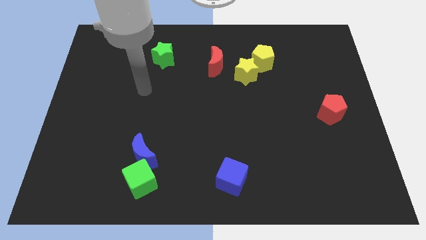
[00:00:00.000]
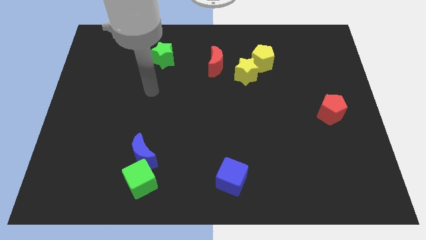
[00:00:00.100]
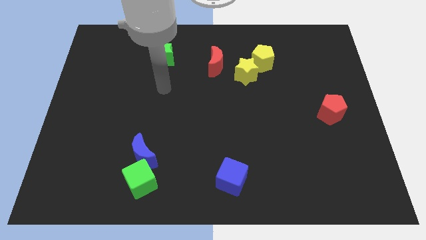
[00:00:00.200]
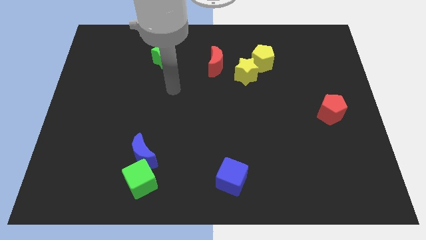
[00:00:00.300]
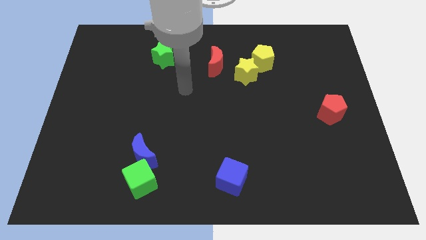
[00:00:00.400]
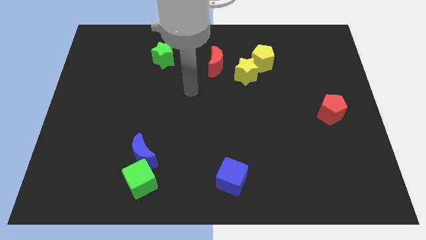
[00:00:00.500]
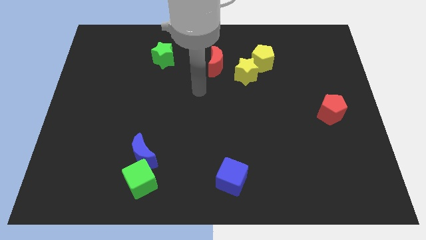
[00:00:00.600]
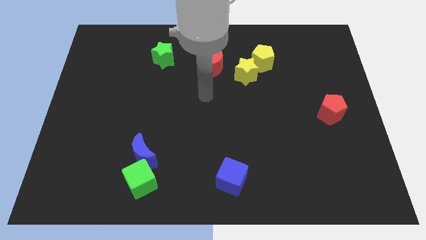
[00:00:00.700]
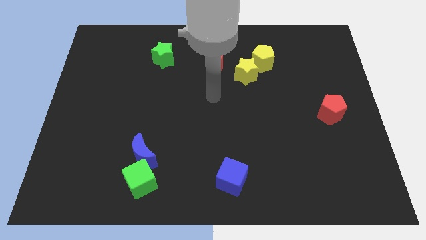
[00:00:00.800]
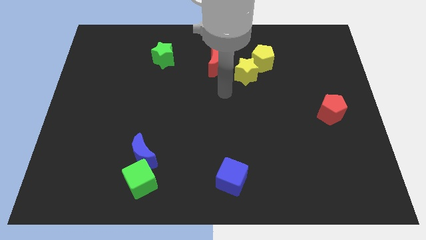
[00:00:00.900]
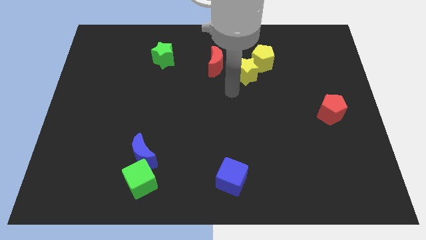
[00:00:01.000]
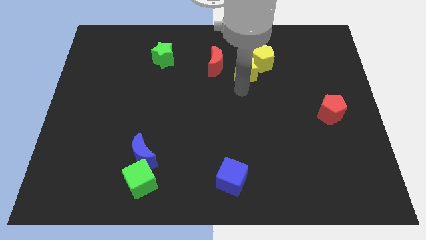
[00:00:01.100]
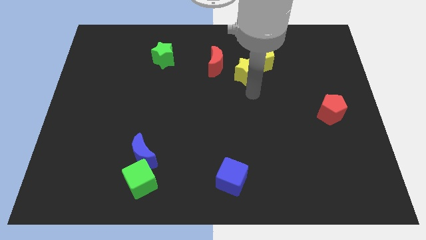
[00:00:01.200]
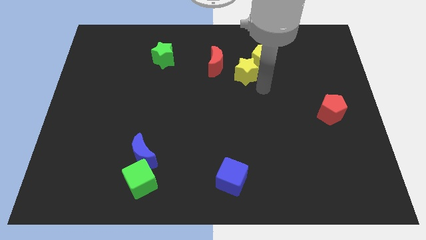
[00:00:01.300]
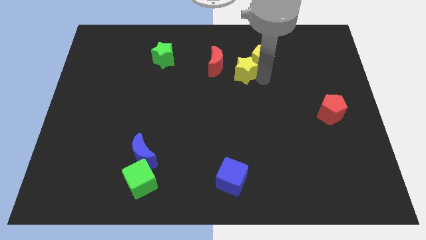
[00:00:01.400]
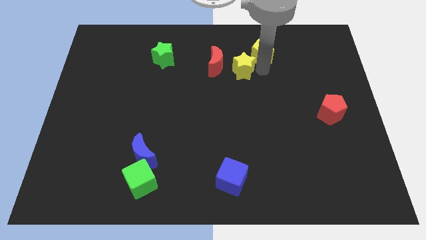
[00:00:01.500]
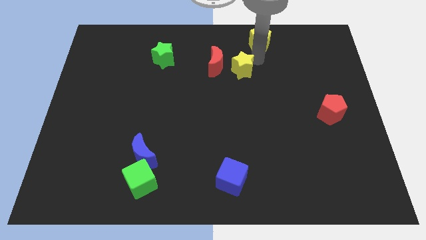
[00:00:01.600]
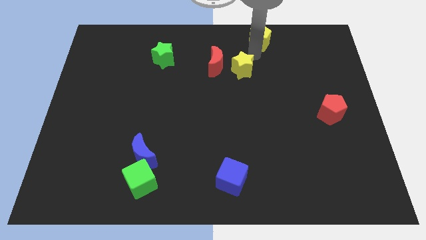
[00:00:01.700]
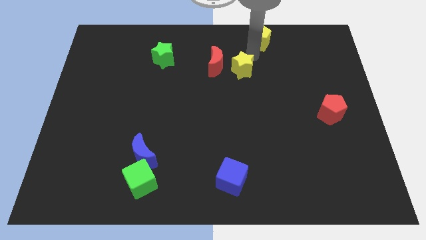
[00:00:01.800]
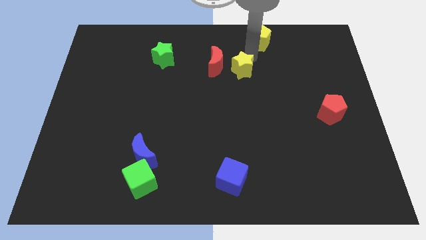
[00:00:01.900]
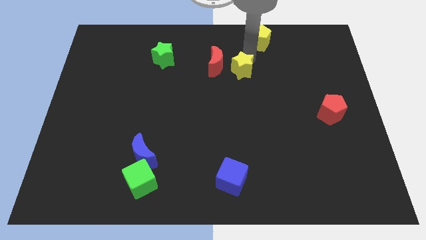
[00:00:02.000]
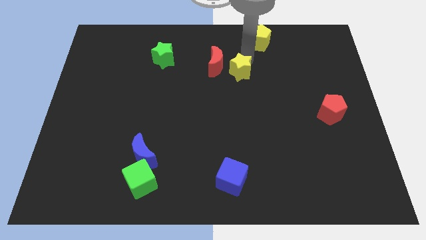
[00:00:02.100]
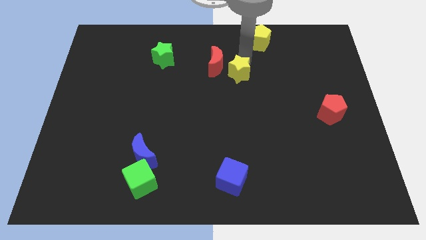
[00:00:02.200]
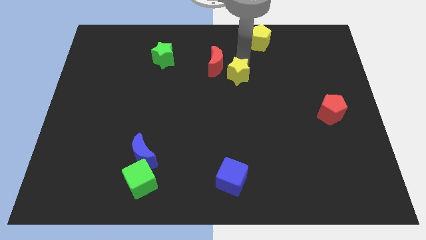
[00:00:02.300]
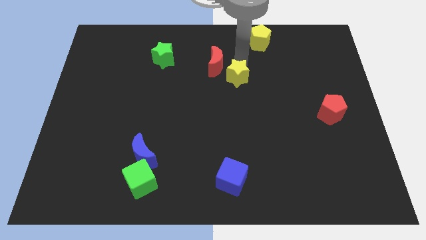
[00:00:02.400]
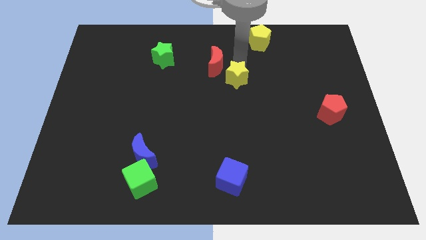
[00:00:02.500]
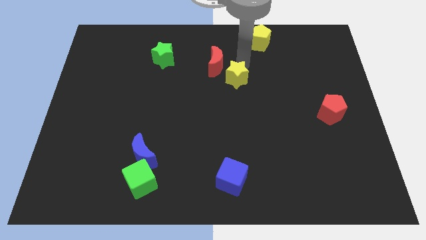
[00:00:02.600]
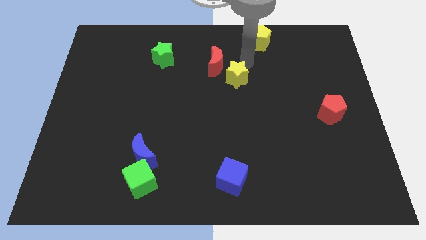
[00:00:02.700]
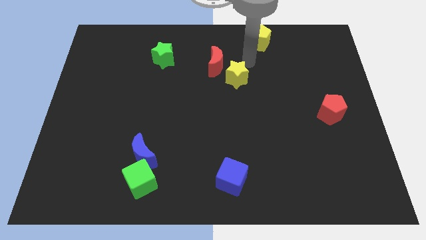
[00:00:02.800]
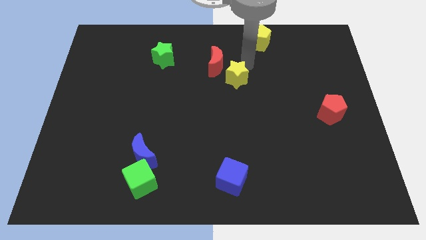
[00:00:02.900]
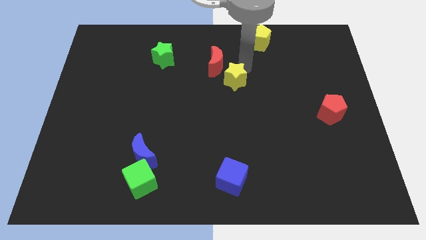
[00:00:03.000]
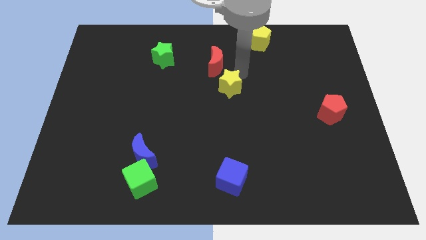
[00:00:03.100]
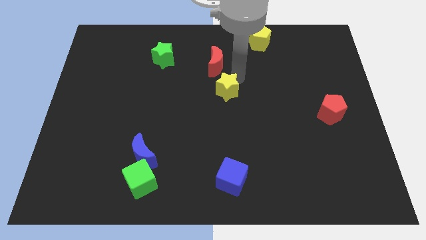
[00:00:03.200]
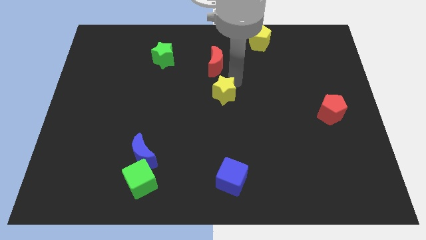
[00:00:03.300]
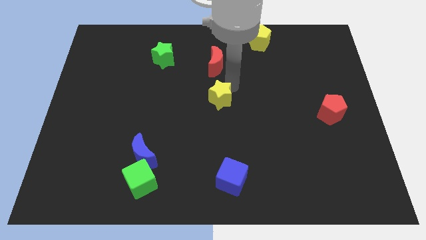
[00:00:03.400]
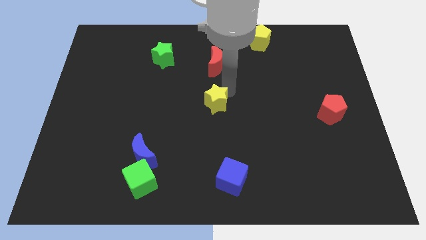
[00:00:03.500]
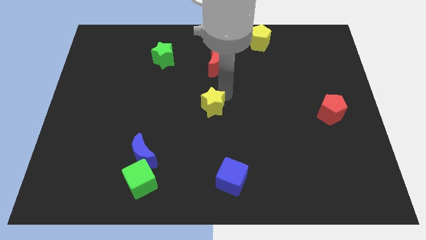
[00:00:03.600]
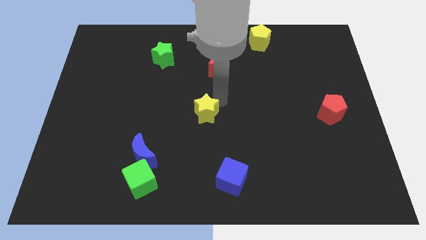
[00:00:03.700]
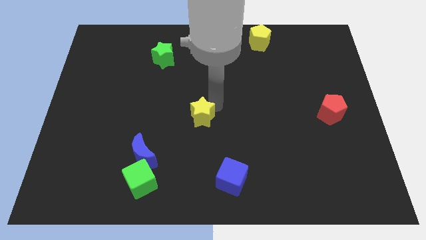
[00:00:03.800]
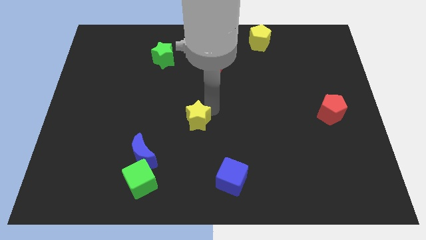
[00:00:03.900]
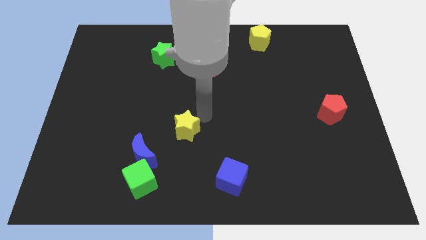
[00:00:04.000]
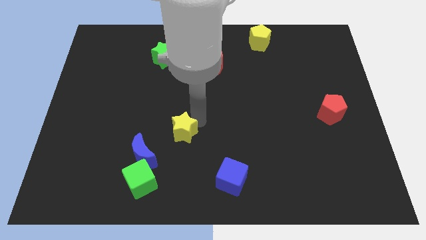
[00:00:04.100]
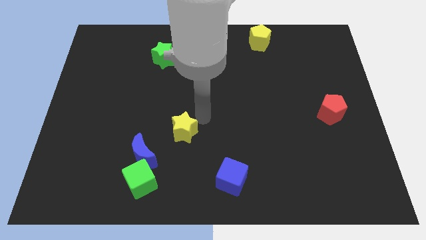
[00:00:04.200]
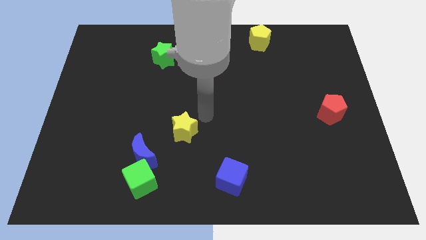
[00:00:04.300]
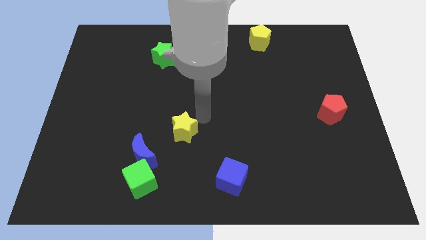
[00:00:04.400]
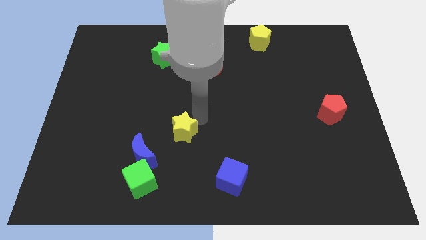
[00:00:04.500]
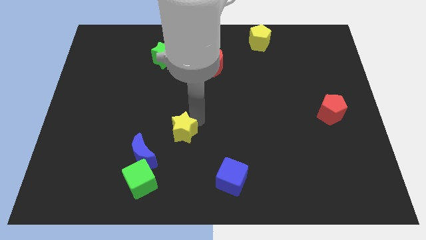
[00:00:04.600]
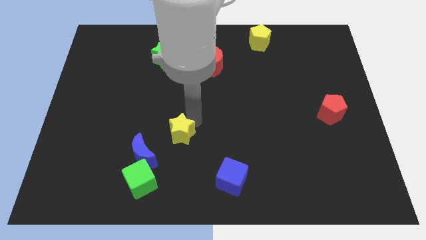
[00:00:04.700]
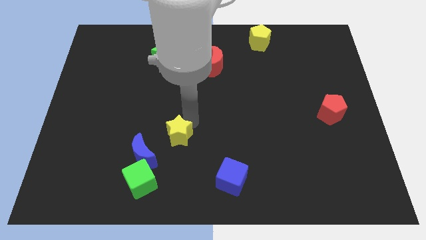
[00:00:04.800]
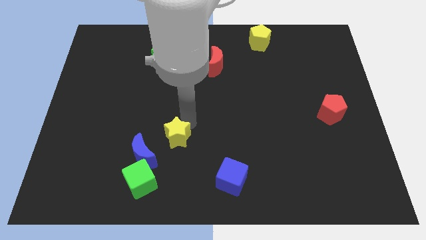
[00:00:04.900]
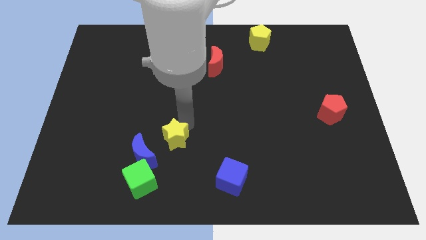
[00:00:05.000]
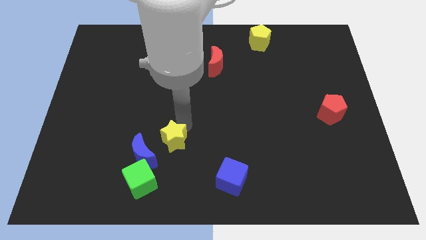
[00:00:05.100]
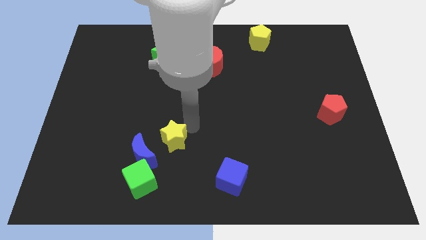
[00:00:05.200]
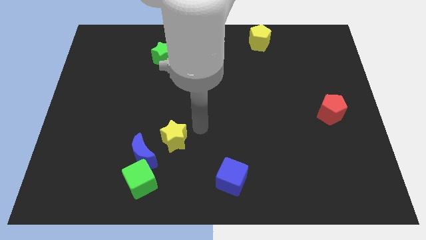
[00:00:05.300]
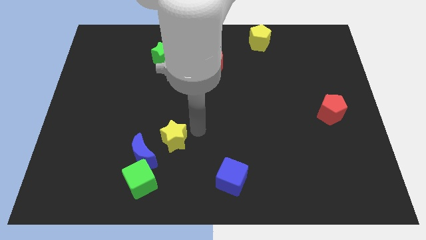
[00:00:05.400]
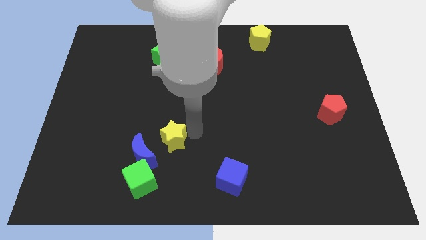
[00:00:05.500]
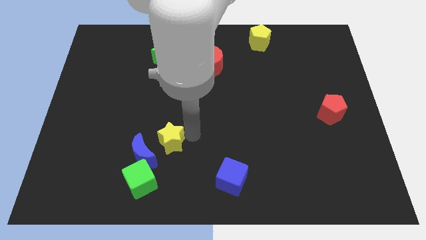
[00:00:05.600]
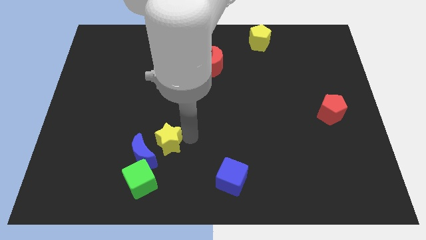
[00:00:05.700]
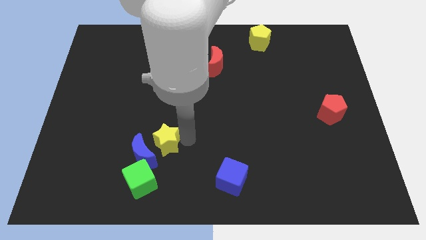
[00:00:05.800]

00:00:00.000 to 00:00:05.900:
put the yellow star to the blue moon

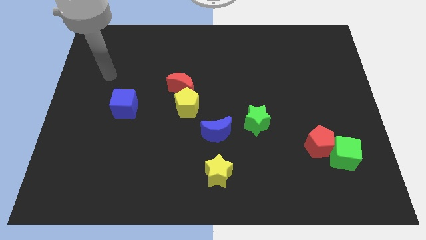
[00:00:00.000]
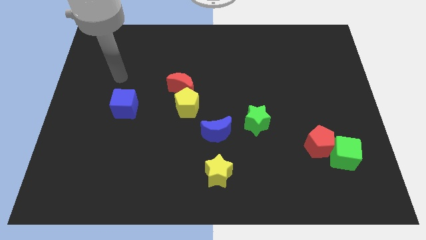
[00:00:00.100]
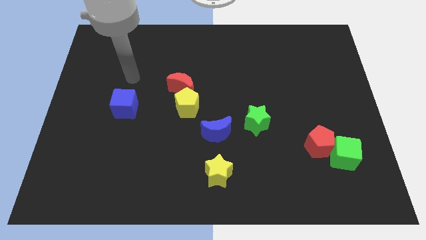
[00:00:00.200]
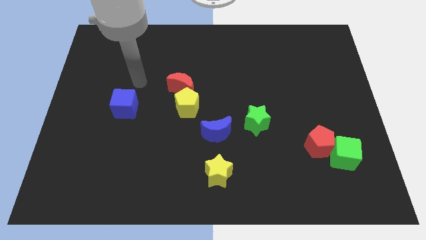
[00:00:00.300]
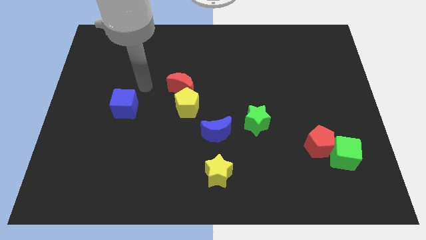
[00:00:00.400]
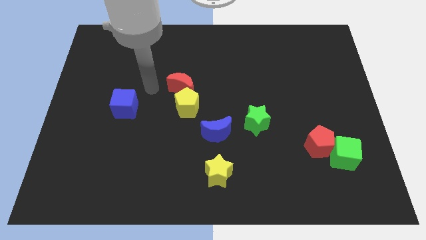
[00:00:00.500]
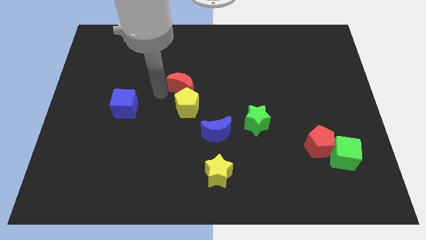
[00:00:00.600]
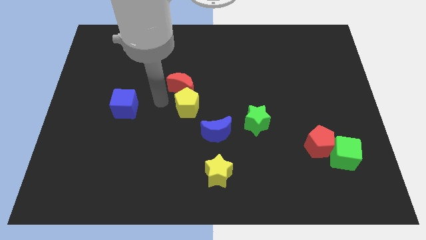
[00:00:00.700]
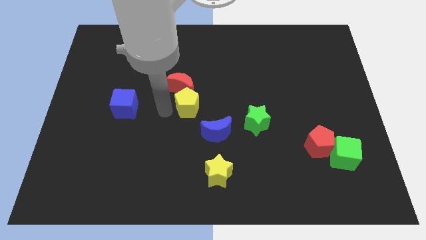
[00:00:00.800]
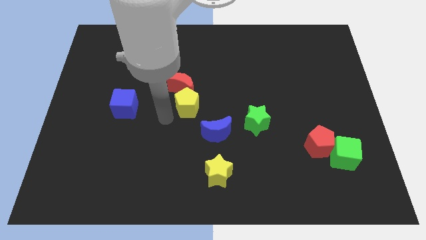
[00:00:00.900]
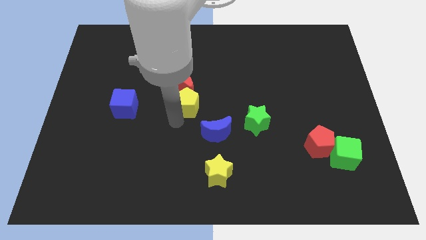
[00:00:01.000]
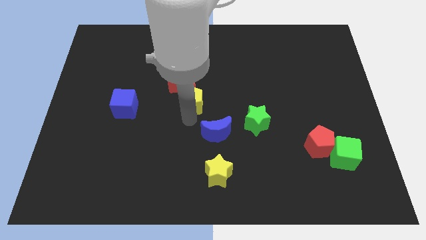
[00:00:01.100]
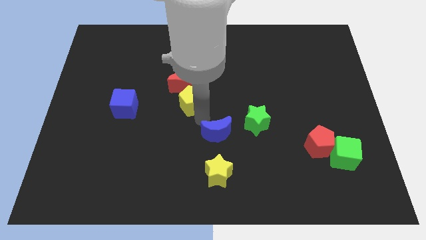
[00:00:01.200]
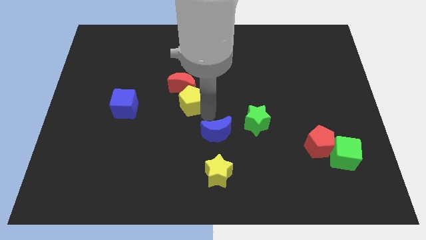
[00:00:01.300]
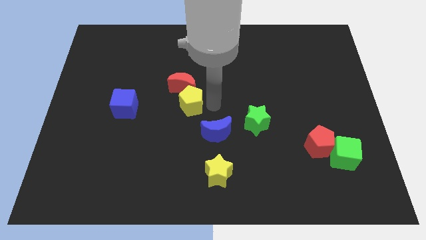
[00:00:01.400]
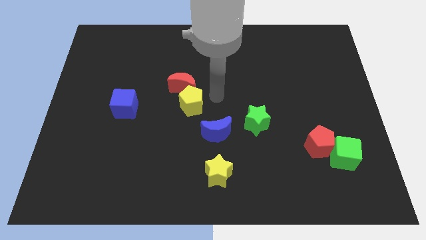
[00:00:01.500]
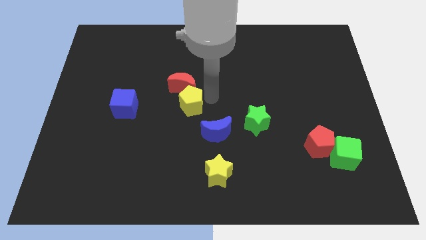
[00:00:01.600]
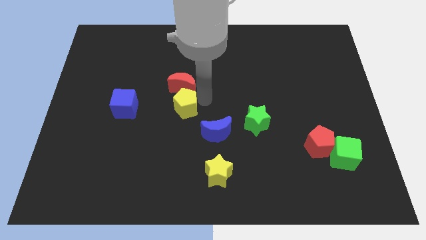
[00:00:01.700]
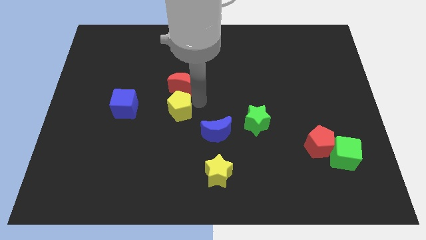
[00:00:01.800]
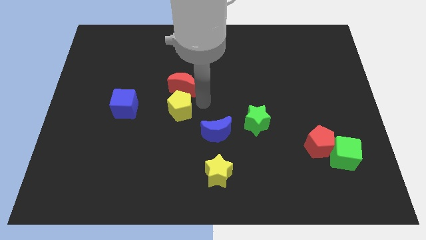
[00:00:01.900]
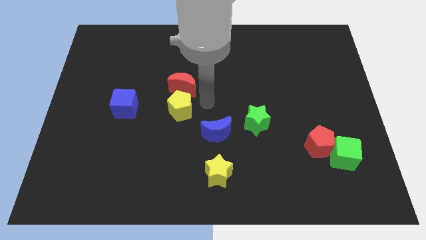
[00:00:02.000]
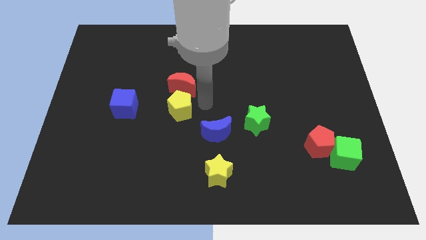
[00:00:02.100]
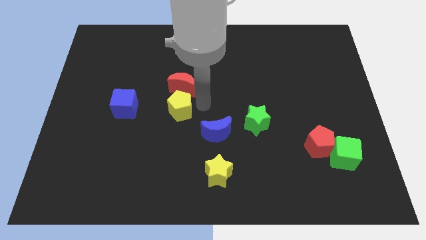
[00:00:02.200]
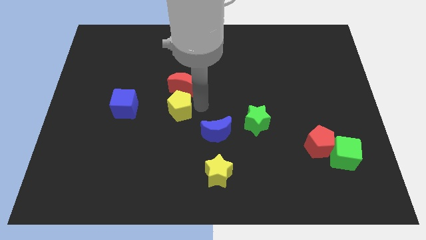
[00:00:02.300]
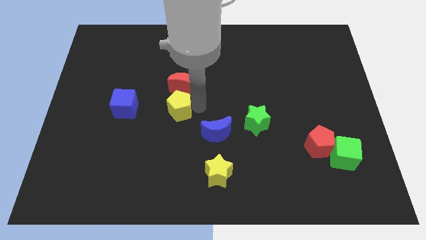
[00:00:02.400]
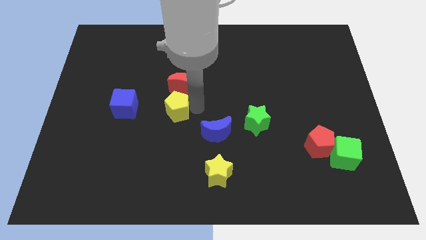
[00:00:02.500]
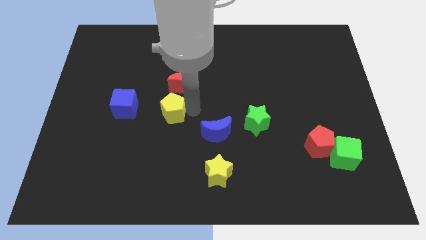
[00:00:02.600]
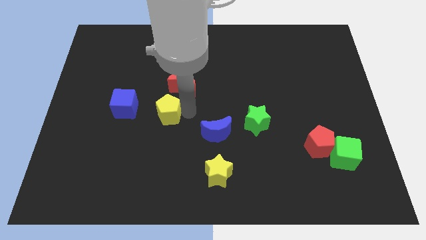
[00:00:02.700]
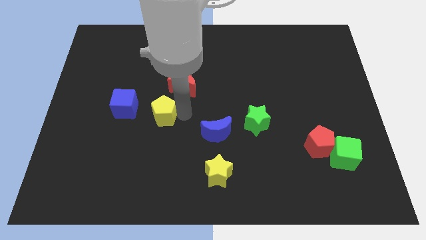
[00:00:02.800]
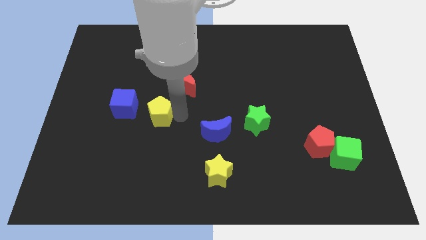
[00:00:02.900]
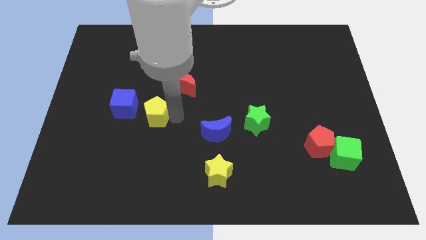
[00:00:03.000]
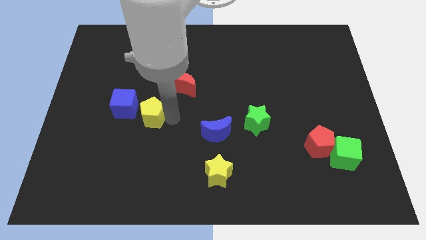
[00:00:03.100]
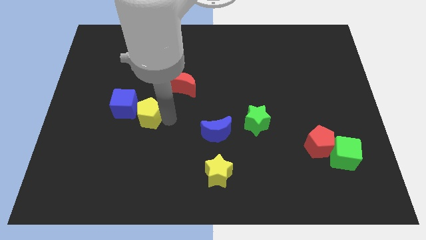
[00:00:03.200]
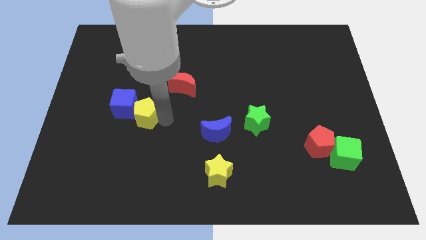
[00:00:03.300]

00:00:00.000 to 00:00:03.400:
push the yellow pentagon close to the blue cube
